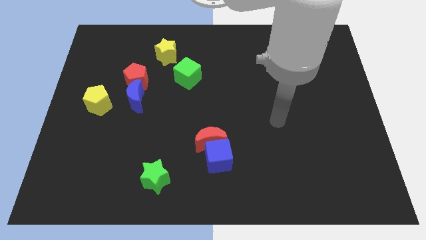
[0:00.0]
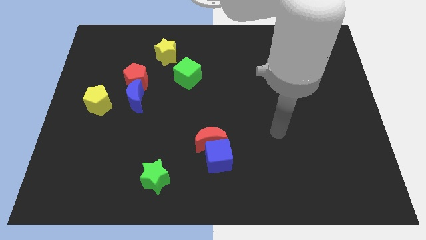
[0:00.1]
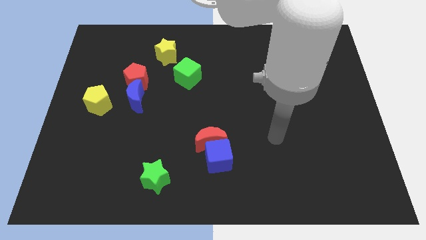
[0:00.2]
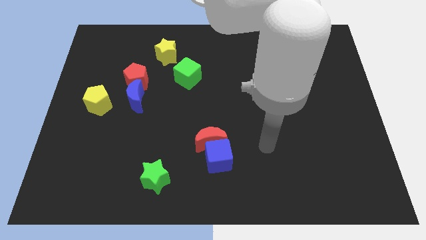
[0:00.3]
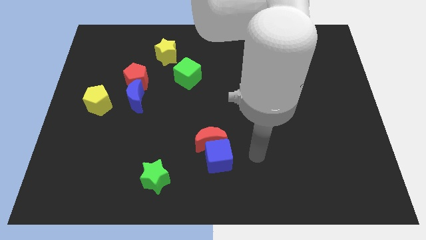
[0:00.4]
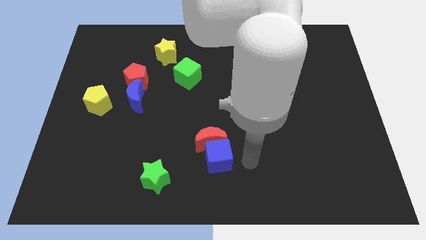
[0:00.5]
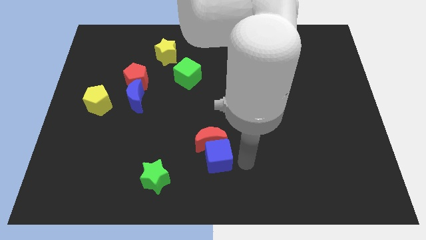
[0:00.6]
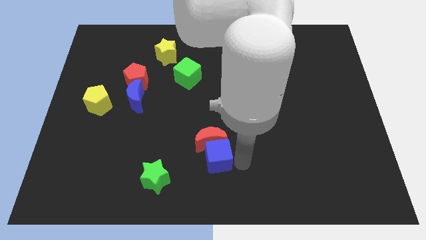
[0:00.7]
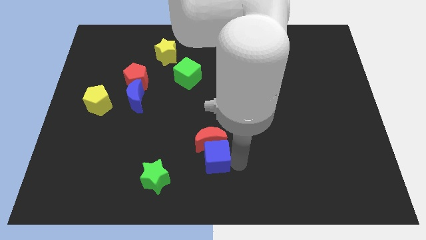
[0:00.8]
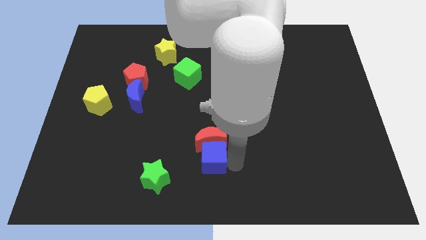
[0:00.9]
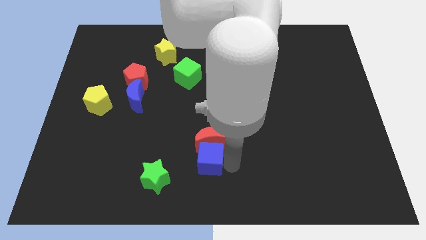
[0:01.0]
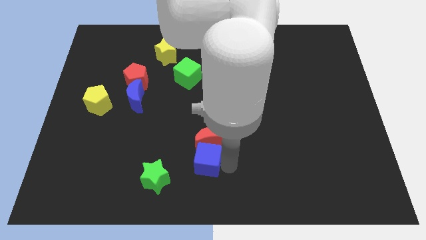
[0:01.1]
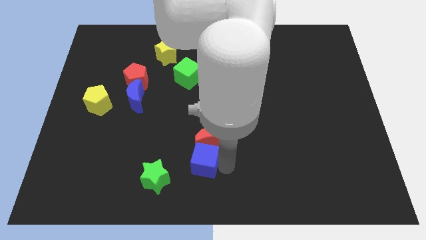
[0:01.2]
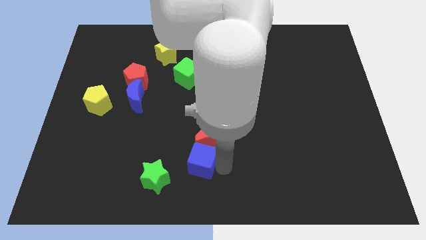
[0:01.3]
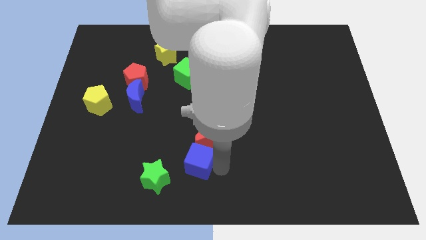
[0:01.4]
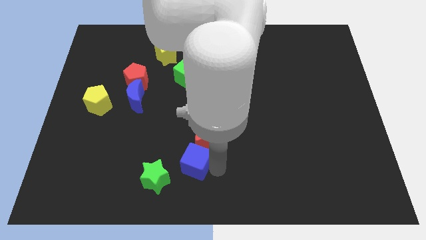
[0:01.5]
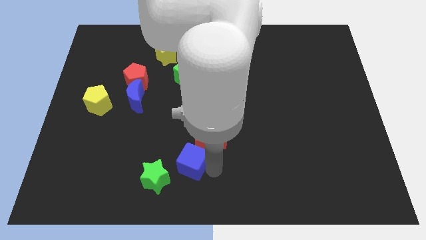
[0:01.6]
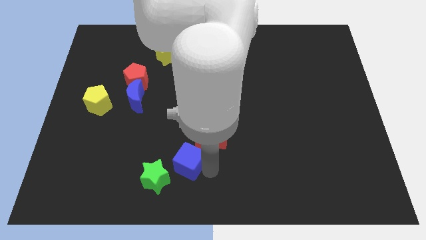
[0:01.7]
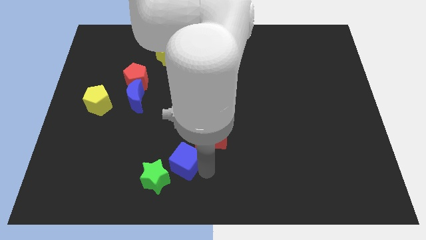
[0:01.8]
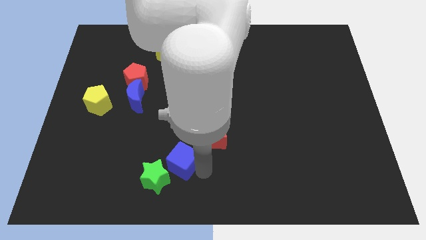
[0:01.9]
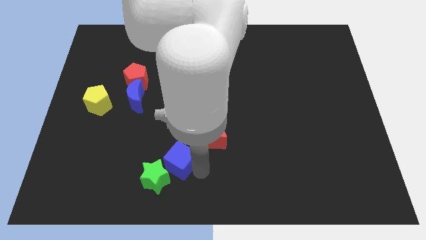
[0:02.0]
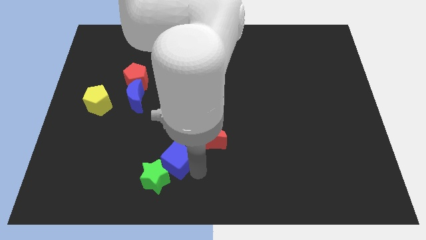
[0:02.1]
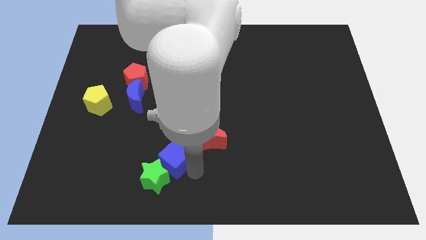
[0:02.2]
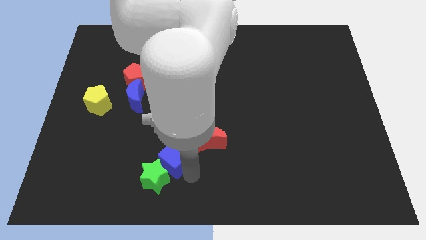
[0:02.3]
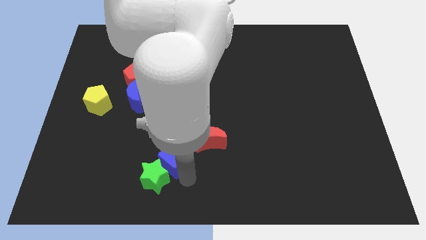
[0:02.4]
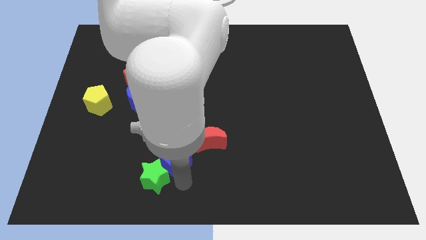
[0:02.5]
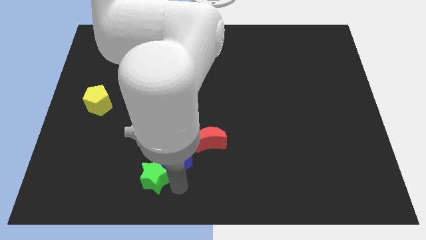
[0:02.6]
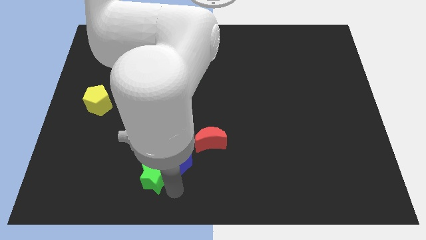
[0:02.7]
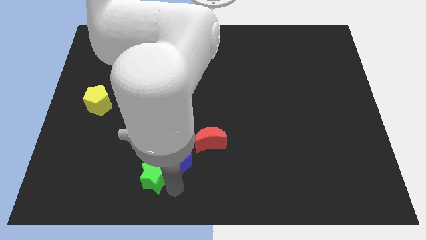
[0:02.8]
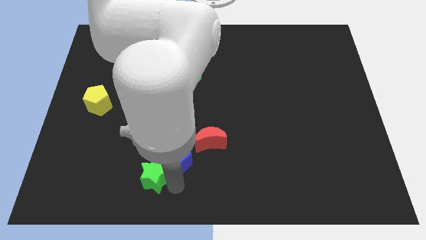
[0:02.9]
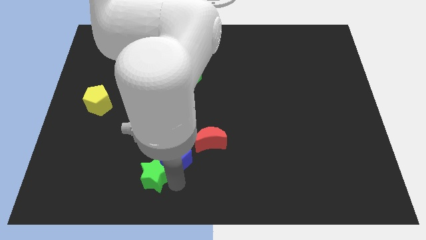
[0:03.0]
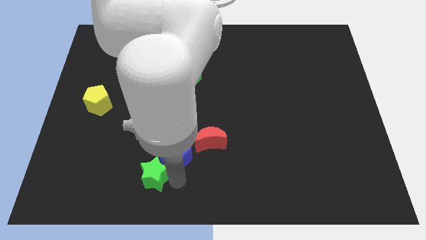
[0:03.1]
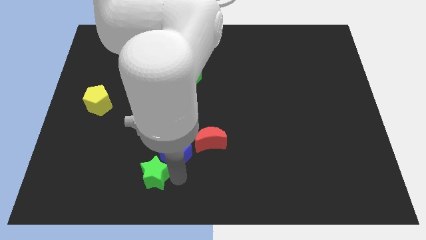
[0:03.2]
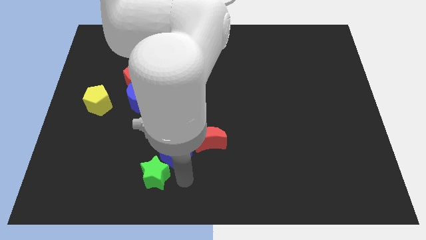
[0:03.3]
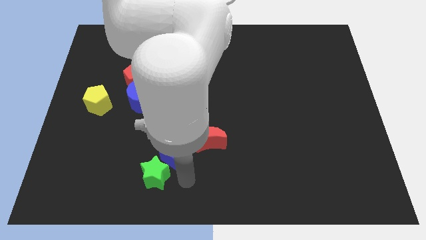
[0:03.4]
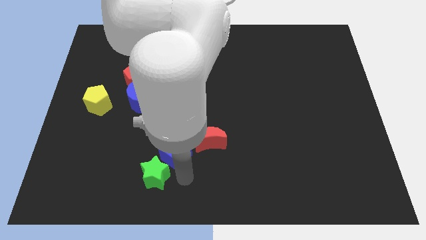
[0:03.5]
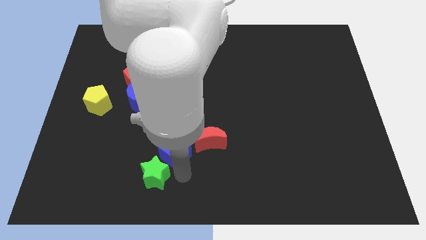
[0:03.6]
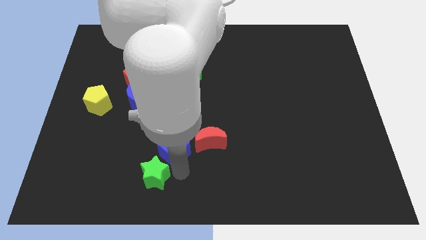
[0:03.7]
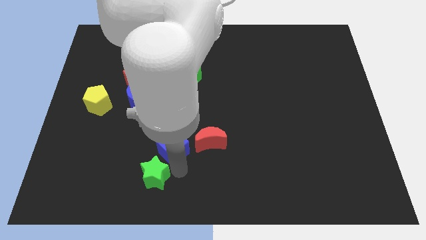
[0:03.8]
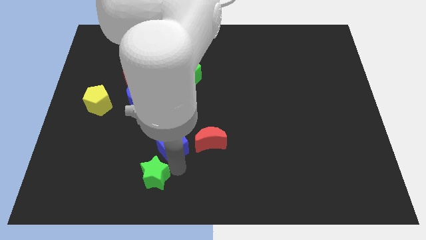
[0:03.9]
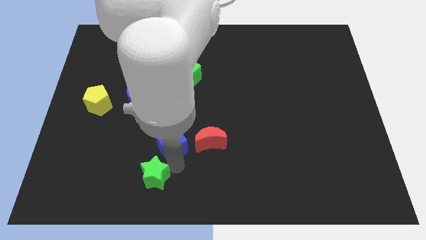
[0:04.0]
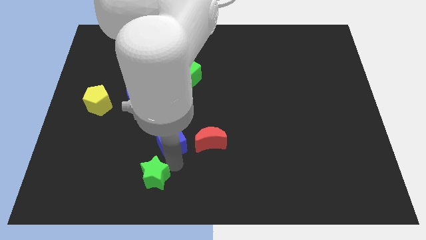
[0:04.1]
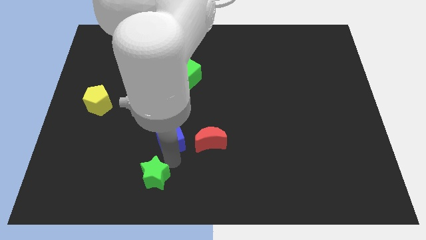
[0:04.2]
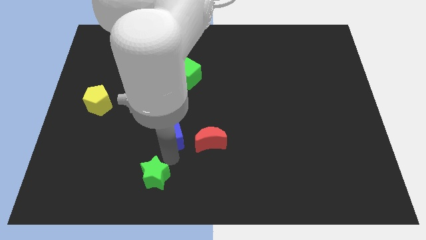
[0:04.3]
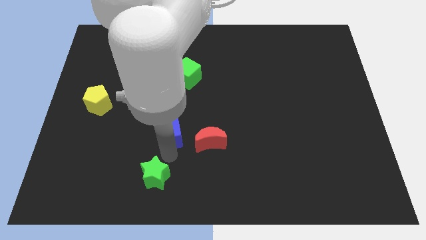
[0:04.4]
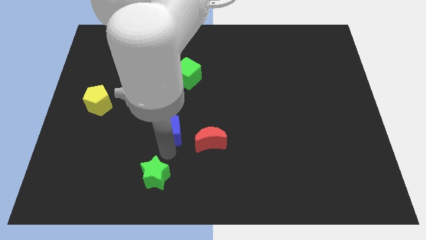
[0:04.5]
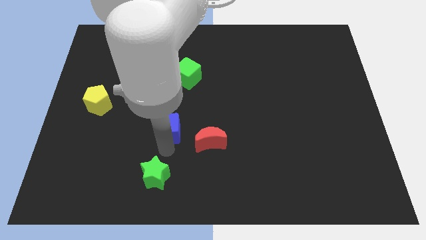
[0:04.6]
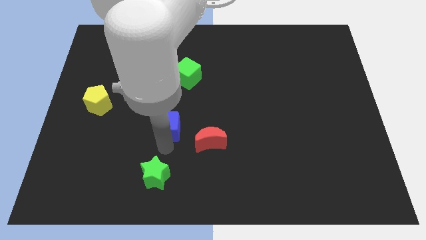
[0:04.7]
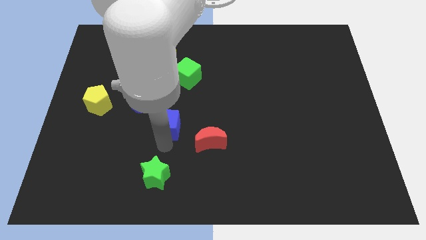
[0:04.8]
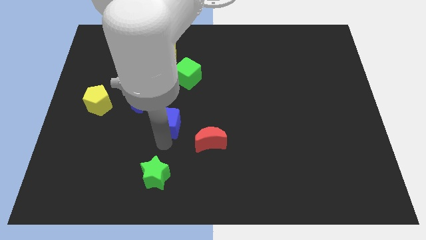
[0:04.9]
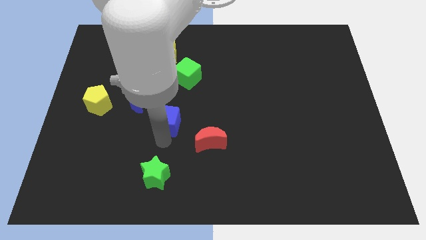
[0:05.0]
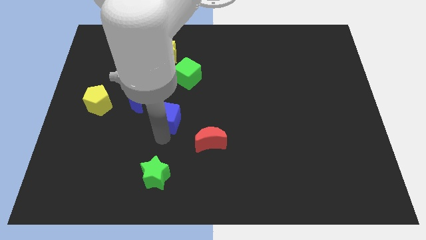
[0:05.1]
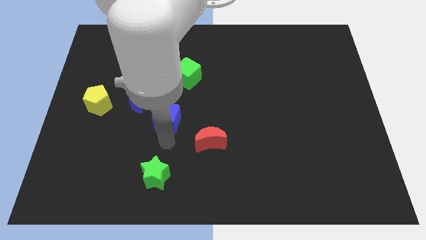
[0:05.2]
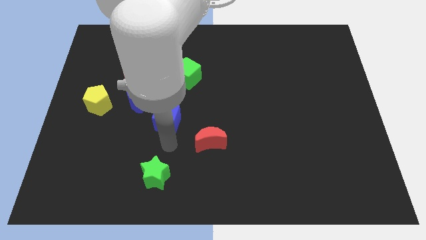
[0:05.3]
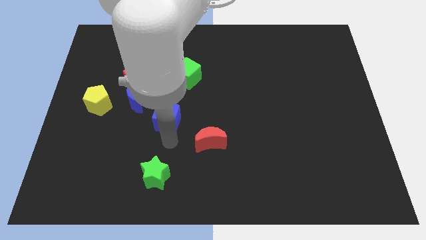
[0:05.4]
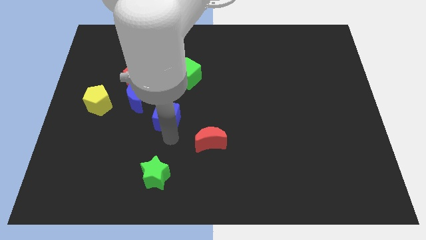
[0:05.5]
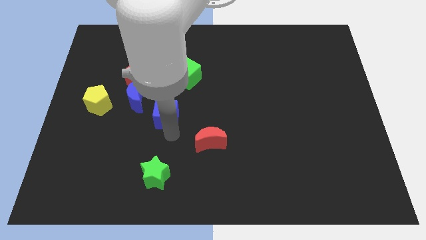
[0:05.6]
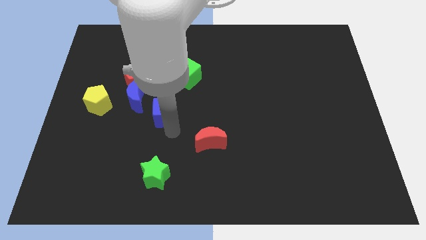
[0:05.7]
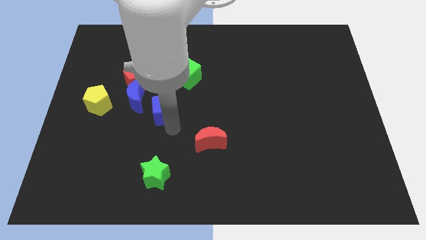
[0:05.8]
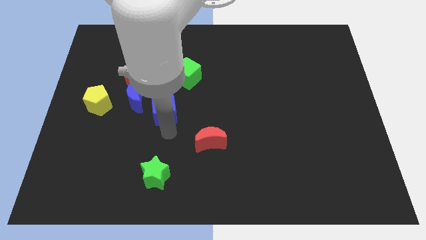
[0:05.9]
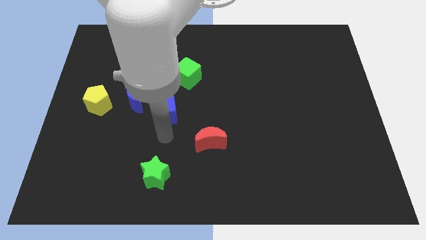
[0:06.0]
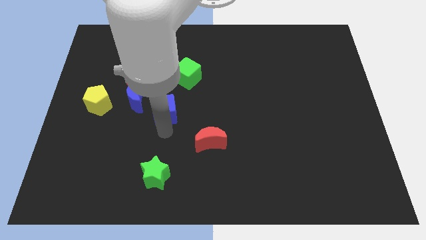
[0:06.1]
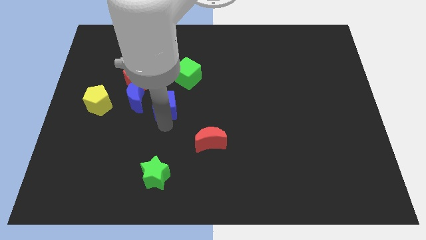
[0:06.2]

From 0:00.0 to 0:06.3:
slide the blue cube to the bottom left of the green cube
